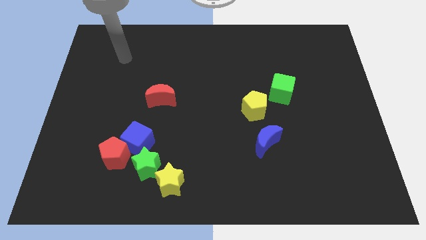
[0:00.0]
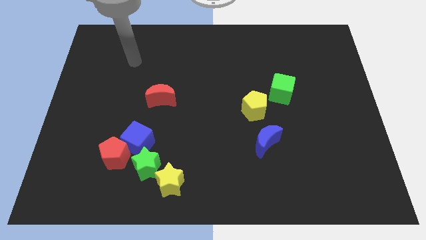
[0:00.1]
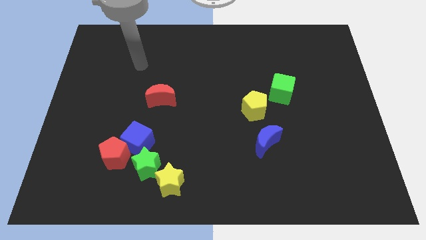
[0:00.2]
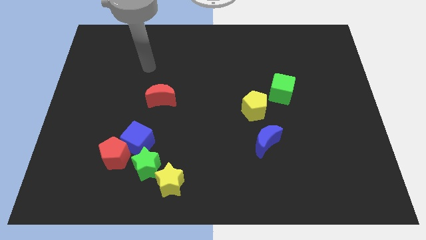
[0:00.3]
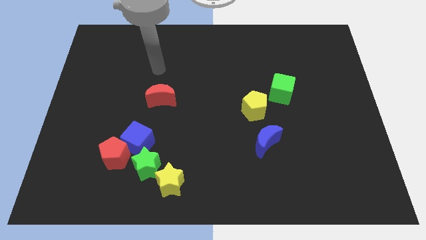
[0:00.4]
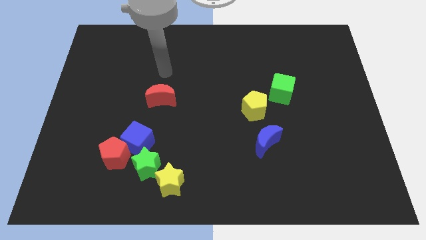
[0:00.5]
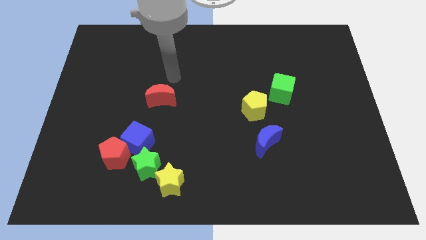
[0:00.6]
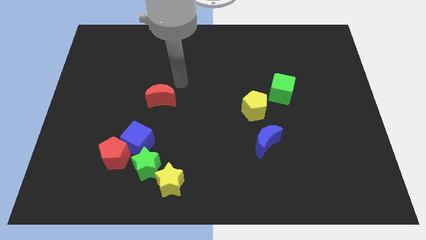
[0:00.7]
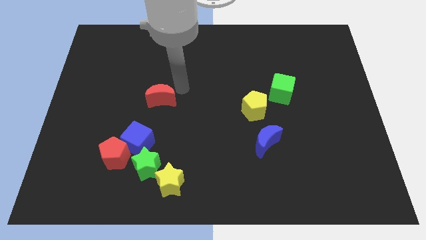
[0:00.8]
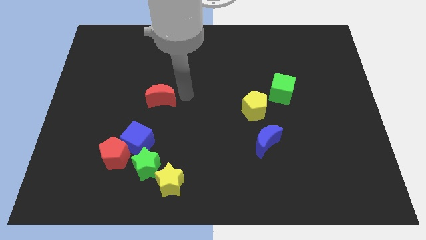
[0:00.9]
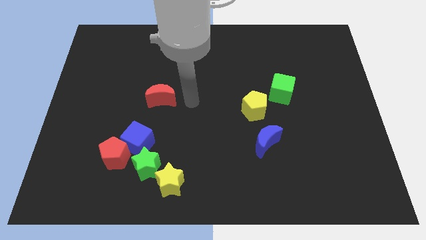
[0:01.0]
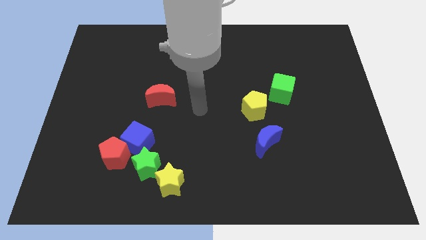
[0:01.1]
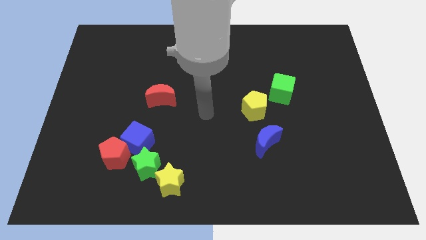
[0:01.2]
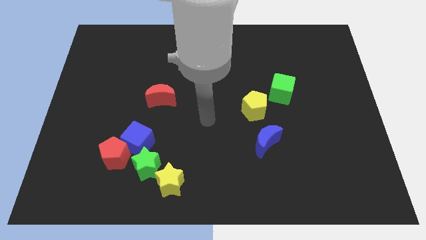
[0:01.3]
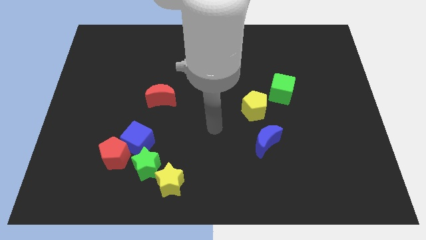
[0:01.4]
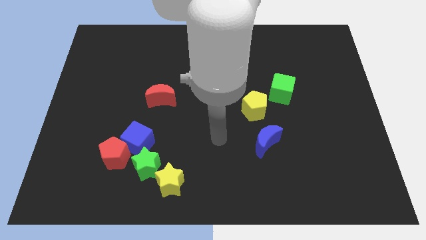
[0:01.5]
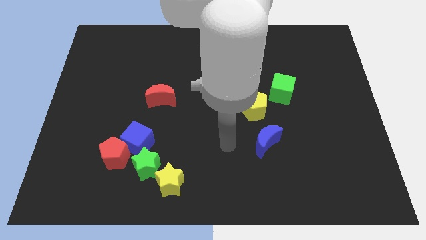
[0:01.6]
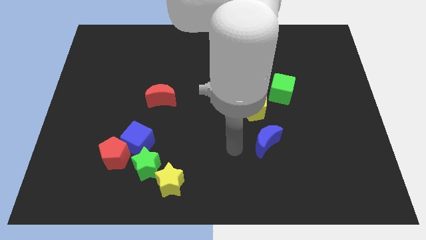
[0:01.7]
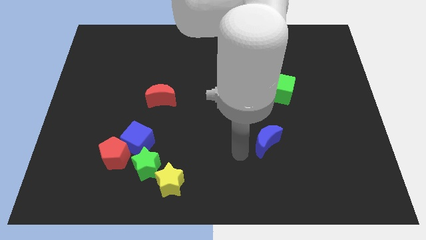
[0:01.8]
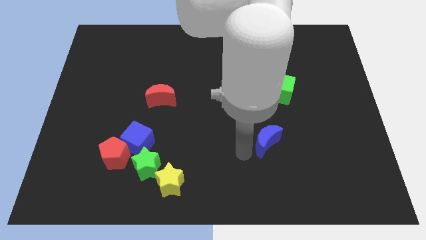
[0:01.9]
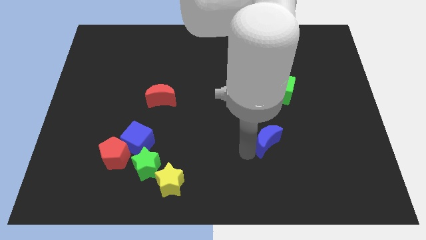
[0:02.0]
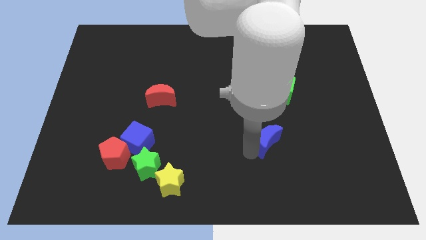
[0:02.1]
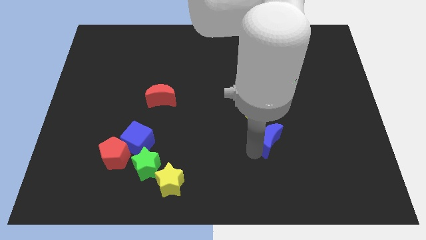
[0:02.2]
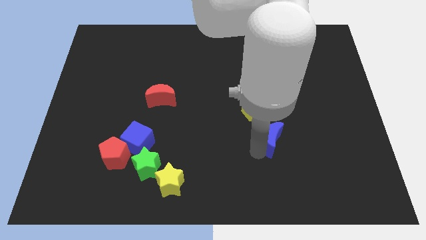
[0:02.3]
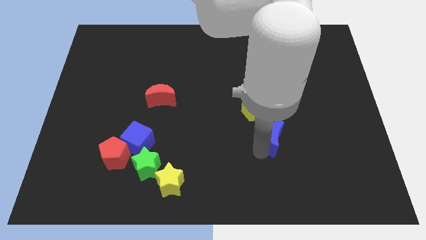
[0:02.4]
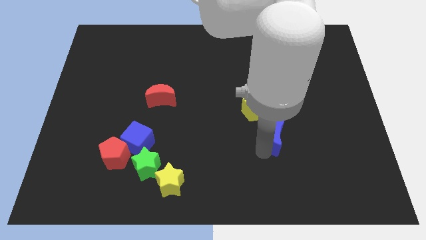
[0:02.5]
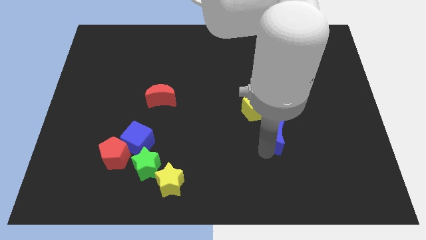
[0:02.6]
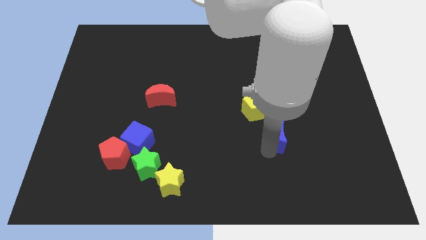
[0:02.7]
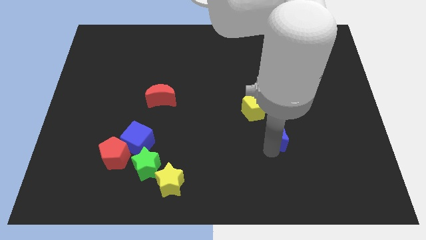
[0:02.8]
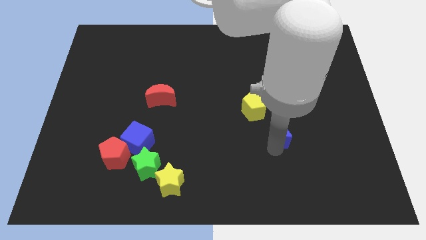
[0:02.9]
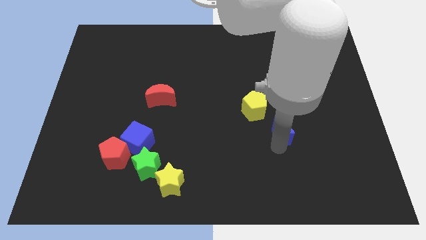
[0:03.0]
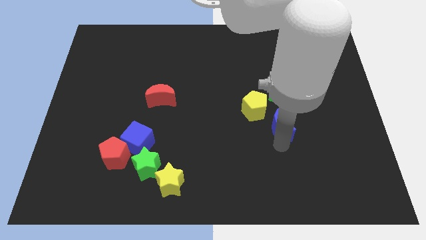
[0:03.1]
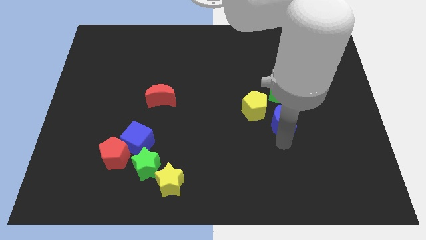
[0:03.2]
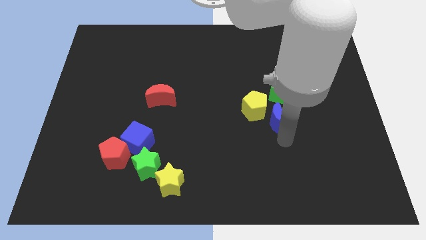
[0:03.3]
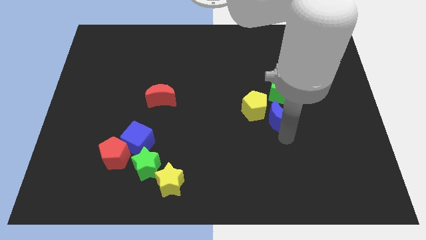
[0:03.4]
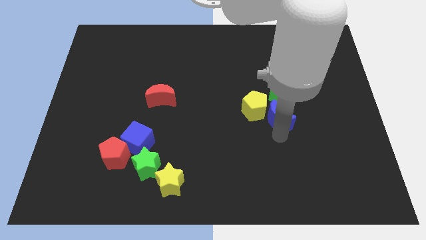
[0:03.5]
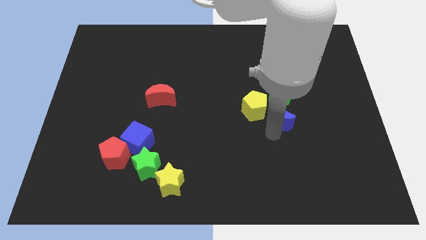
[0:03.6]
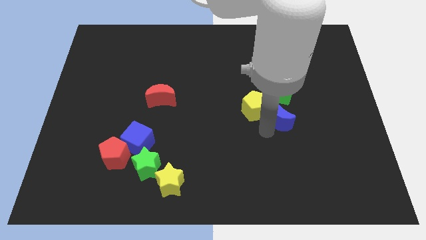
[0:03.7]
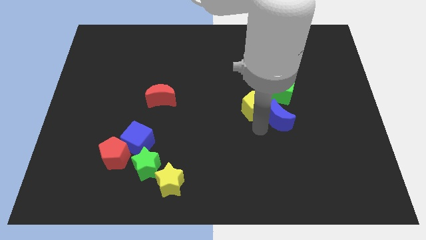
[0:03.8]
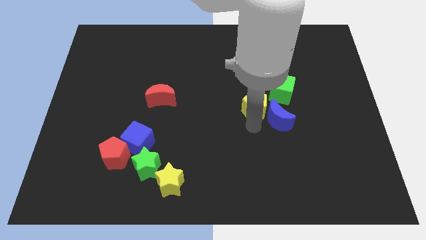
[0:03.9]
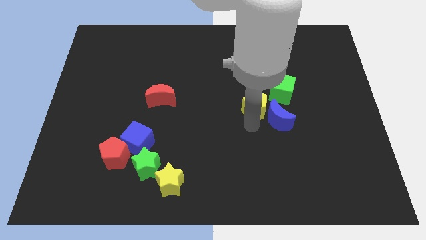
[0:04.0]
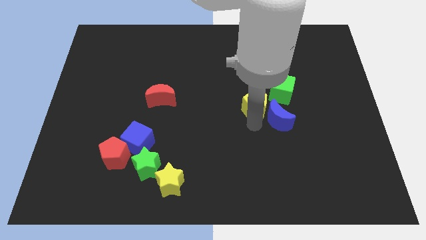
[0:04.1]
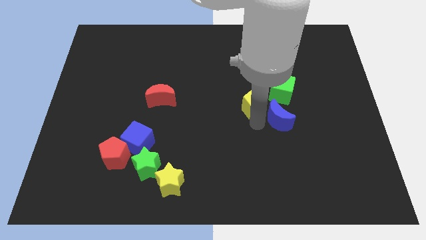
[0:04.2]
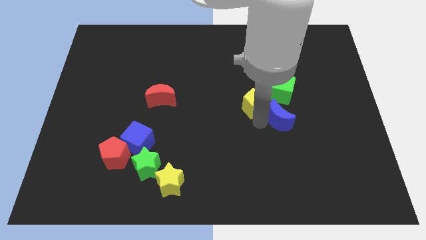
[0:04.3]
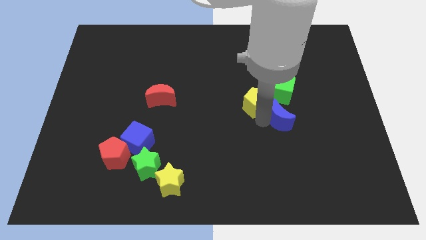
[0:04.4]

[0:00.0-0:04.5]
slightly push the blue moon up and to the right

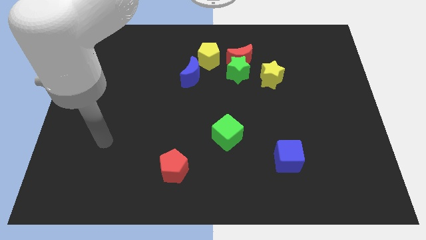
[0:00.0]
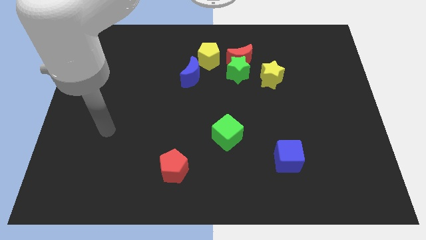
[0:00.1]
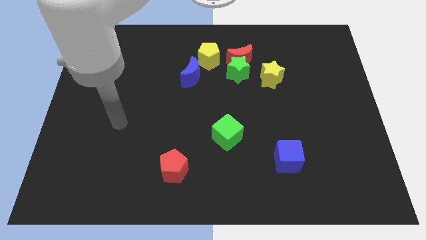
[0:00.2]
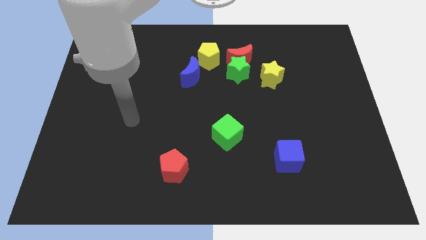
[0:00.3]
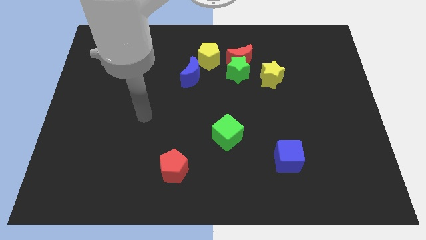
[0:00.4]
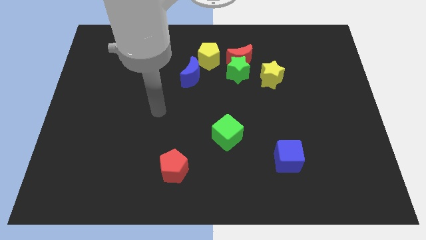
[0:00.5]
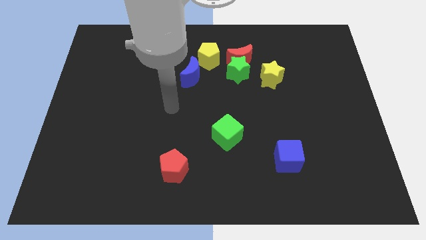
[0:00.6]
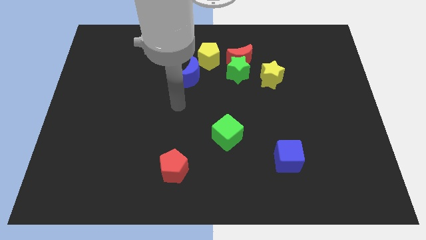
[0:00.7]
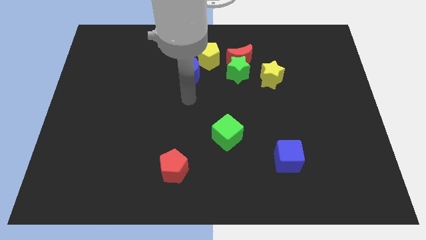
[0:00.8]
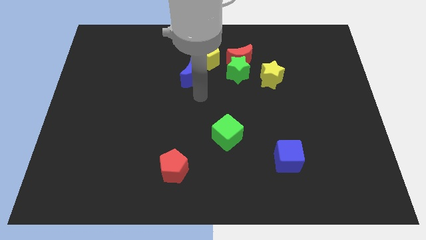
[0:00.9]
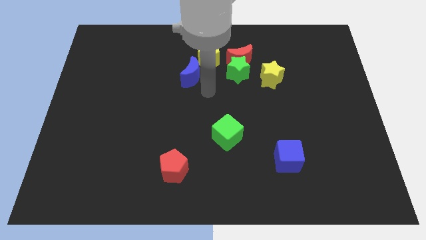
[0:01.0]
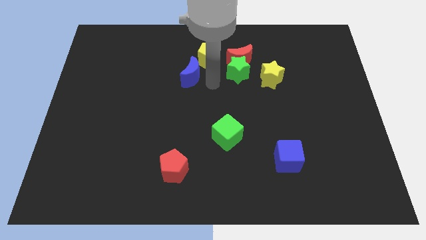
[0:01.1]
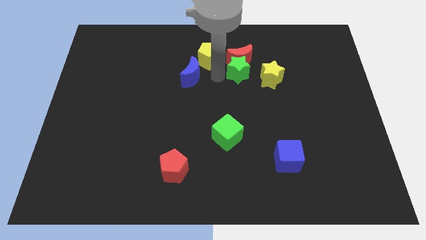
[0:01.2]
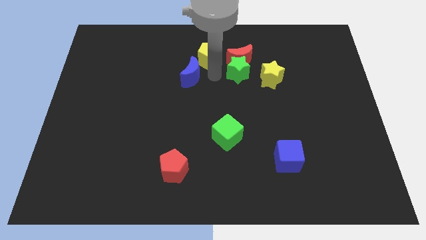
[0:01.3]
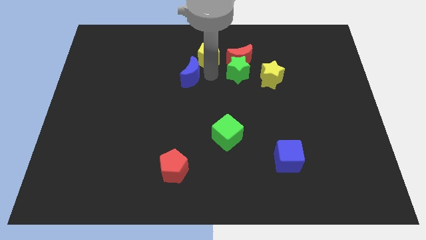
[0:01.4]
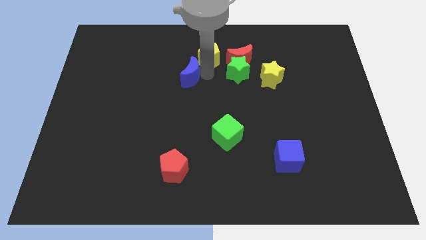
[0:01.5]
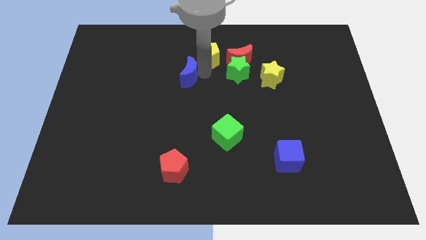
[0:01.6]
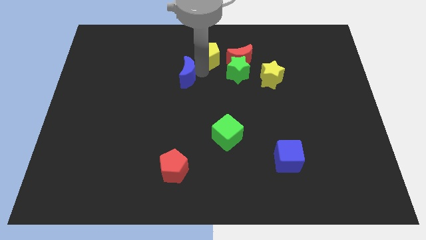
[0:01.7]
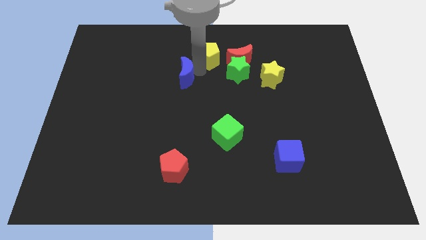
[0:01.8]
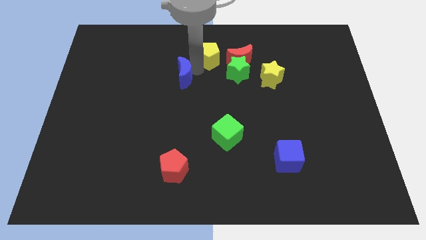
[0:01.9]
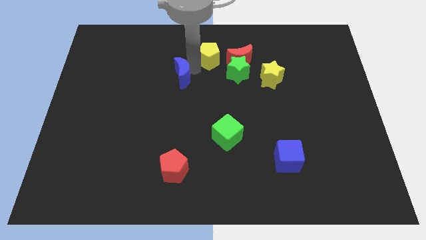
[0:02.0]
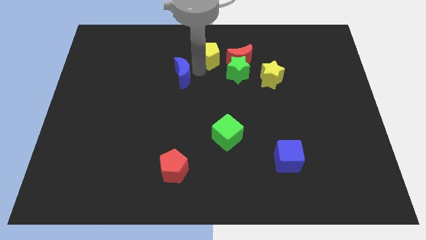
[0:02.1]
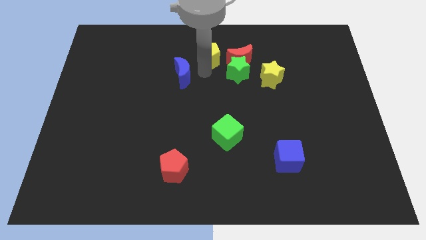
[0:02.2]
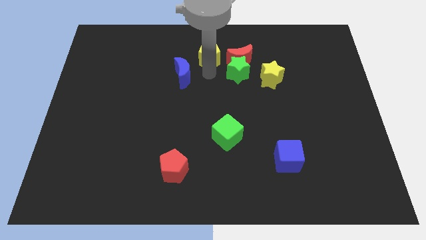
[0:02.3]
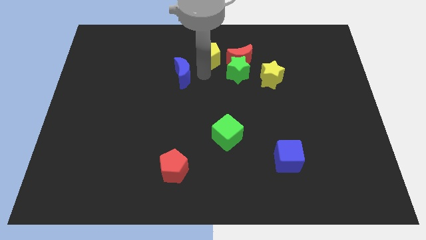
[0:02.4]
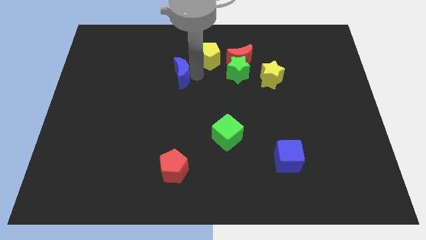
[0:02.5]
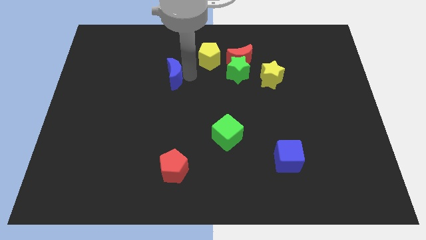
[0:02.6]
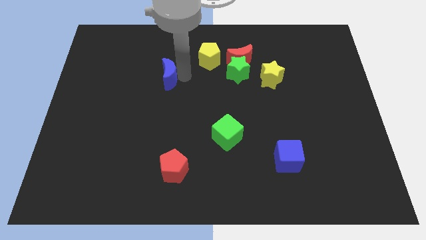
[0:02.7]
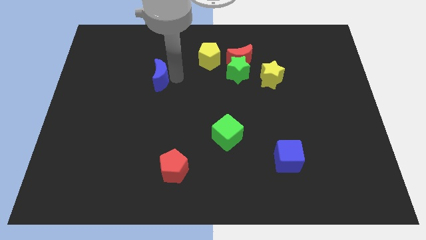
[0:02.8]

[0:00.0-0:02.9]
slightly push the blue moon to the left

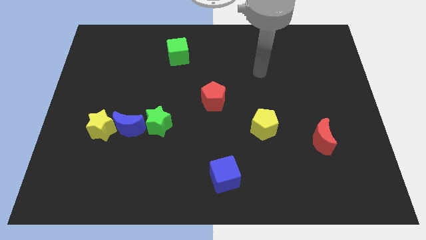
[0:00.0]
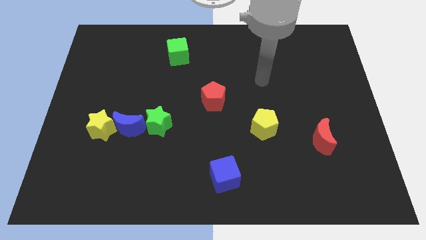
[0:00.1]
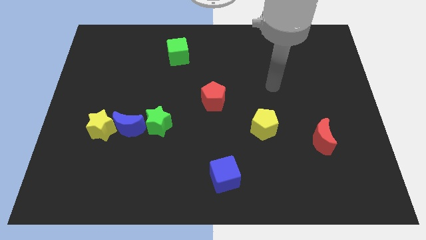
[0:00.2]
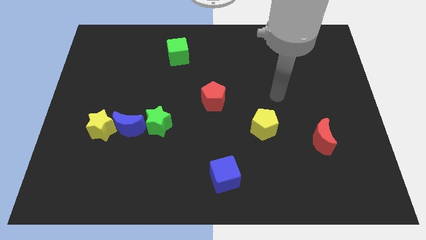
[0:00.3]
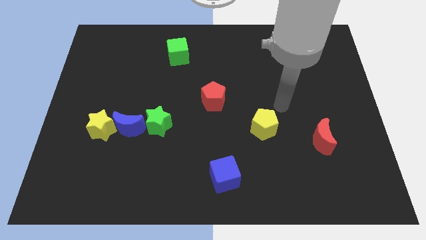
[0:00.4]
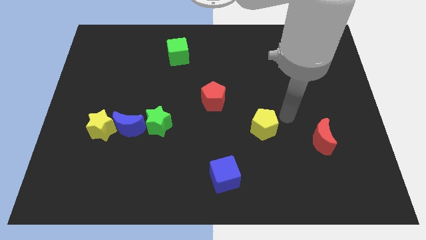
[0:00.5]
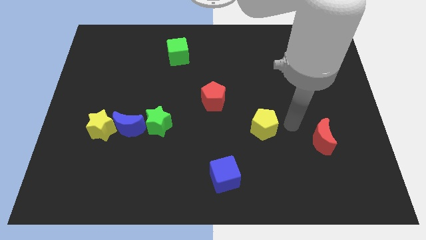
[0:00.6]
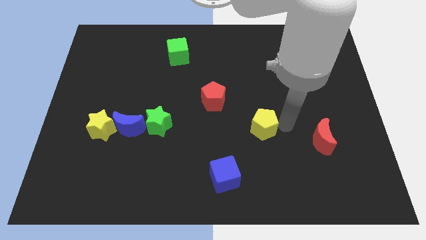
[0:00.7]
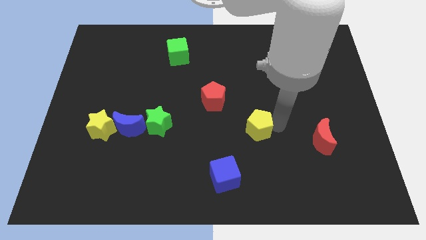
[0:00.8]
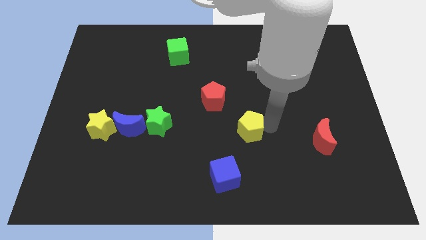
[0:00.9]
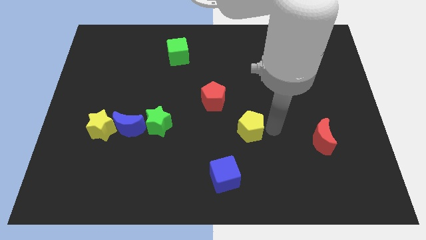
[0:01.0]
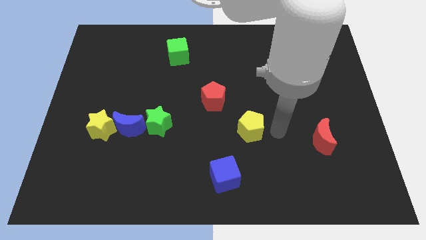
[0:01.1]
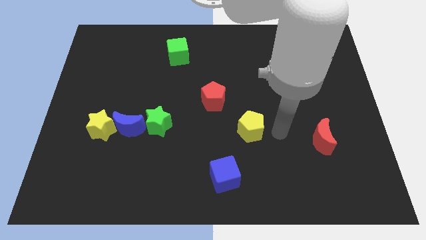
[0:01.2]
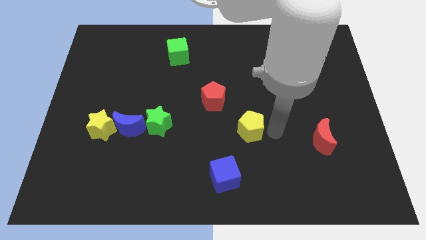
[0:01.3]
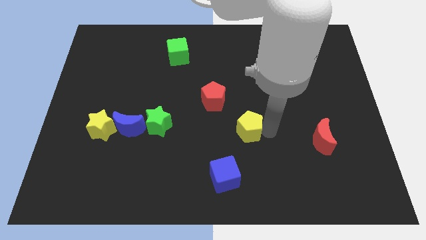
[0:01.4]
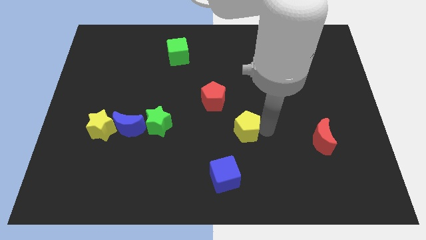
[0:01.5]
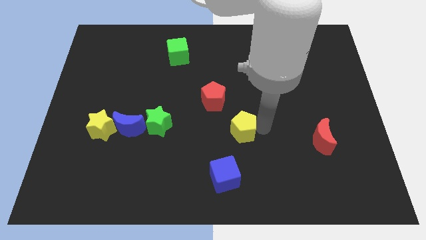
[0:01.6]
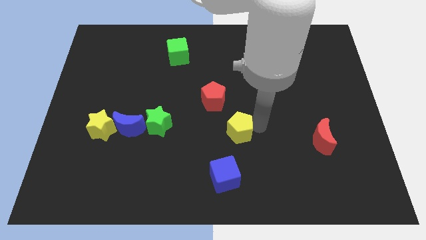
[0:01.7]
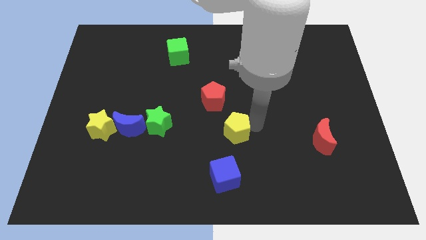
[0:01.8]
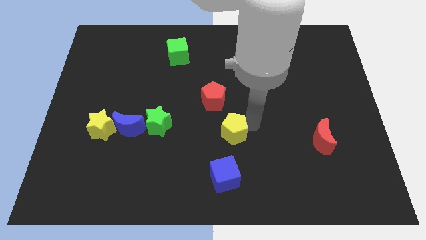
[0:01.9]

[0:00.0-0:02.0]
push the yellow pentagon left a little
